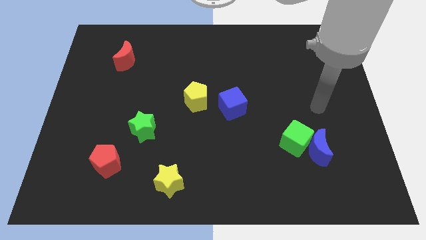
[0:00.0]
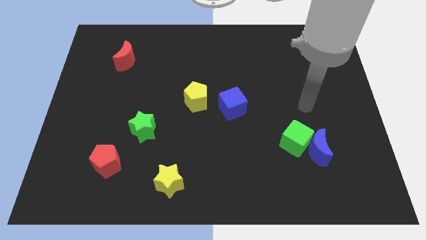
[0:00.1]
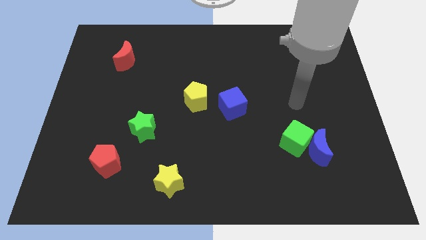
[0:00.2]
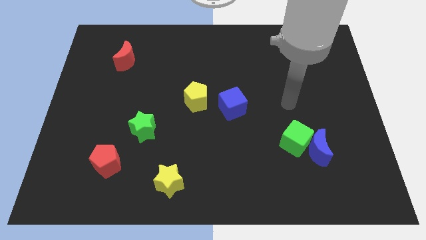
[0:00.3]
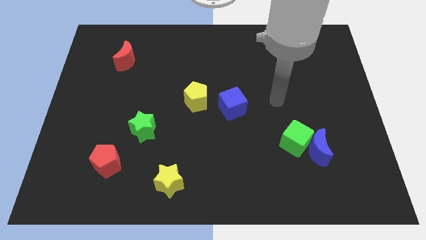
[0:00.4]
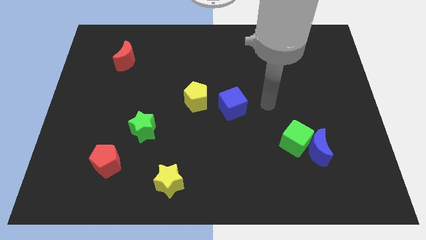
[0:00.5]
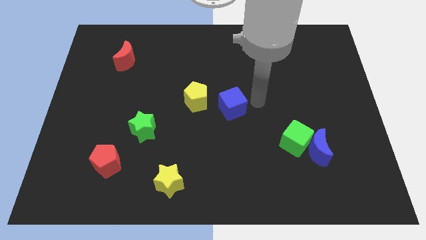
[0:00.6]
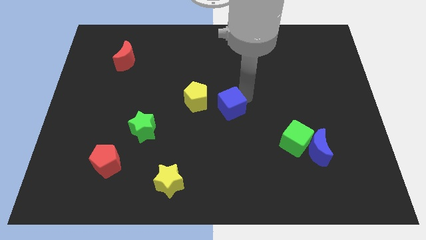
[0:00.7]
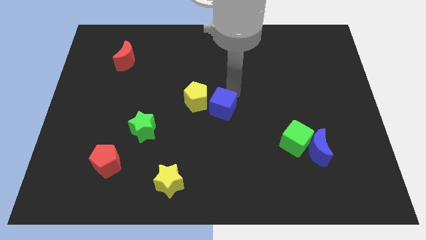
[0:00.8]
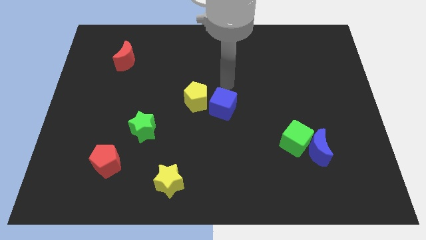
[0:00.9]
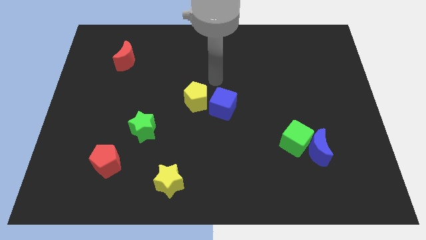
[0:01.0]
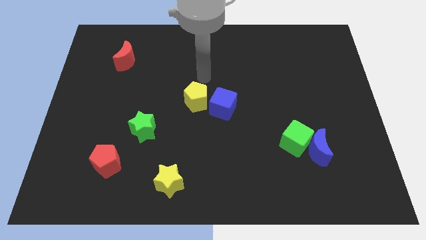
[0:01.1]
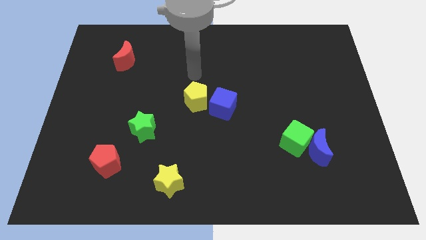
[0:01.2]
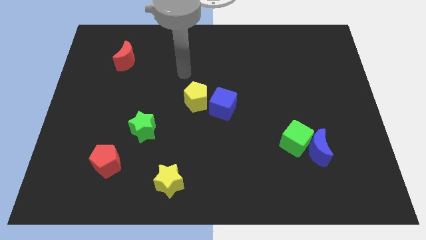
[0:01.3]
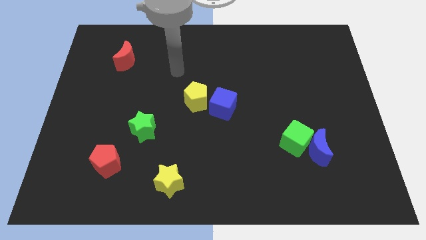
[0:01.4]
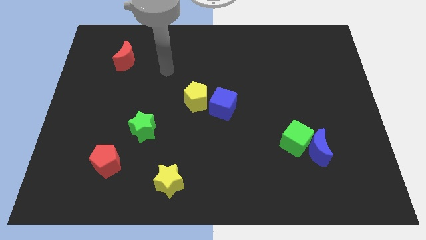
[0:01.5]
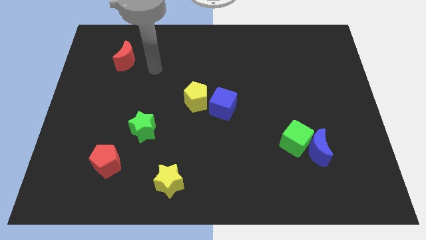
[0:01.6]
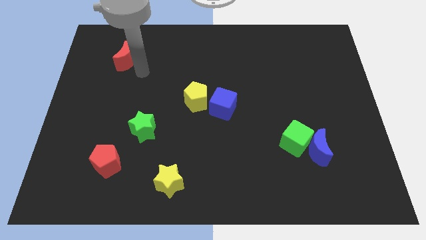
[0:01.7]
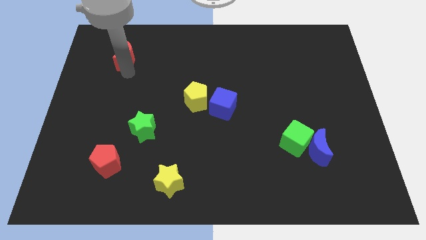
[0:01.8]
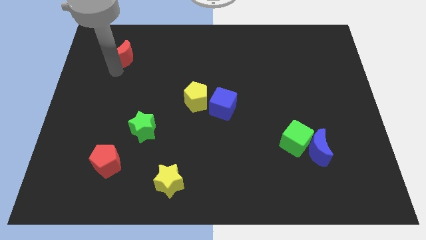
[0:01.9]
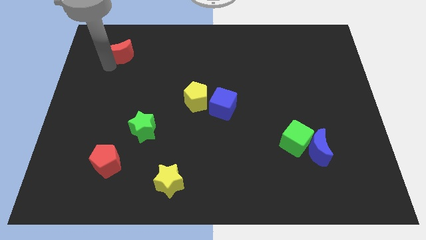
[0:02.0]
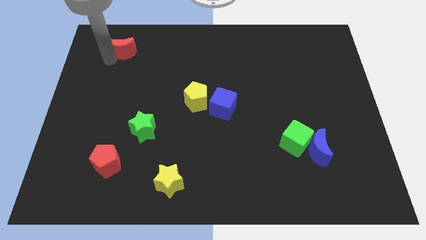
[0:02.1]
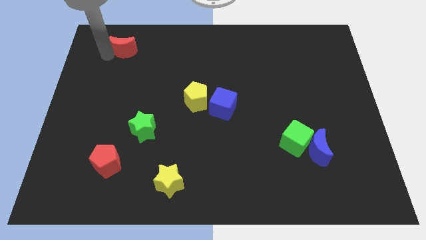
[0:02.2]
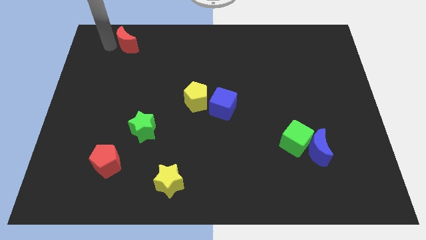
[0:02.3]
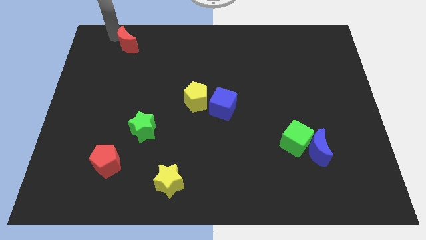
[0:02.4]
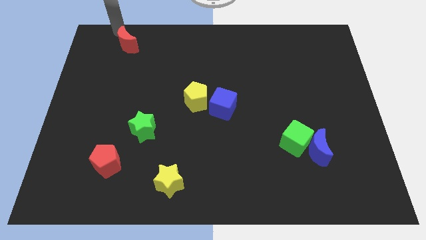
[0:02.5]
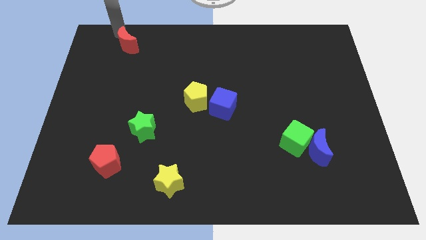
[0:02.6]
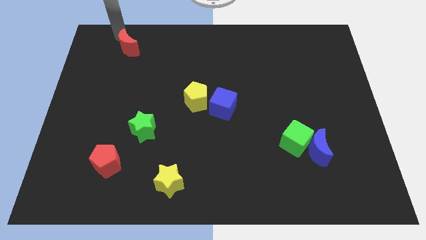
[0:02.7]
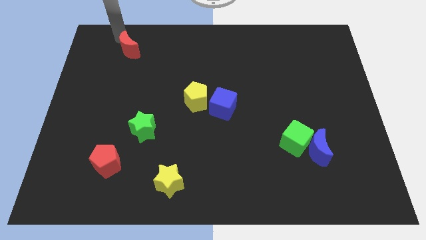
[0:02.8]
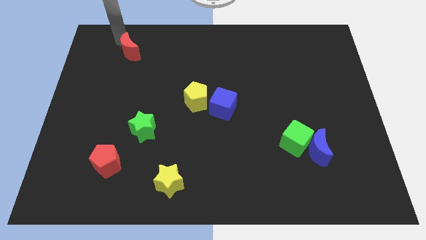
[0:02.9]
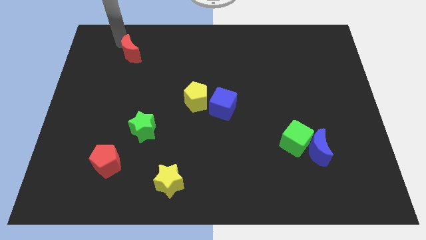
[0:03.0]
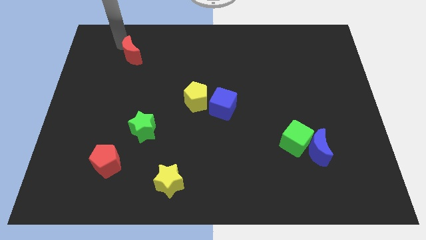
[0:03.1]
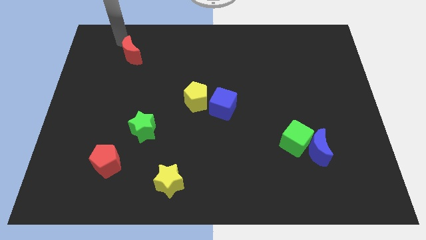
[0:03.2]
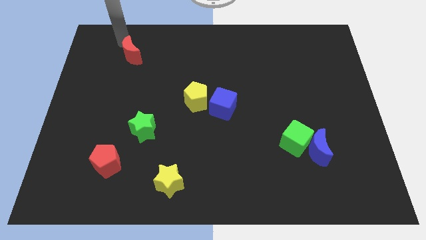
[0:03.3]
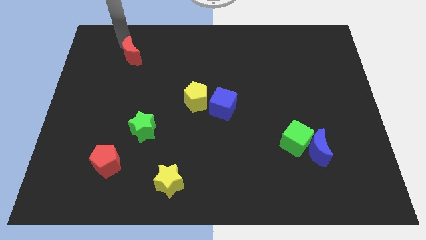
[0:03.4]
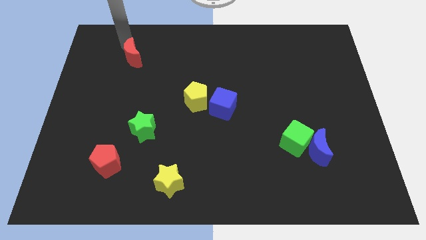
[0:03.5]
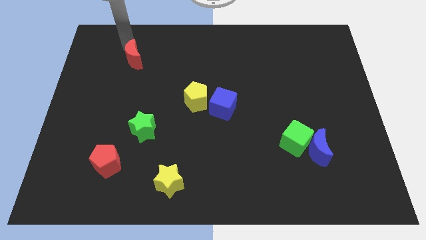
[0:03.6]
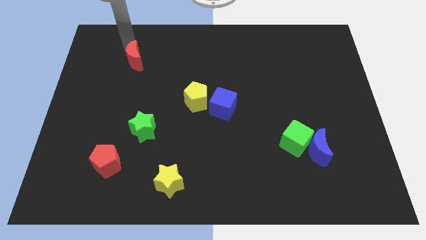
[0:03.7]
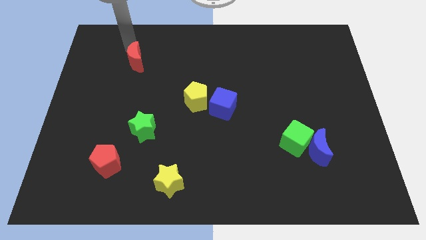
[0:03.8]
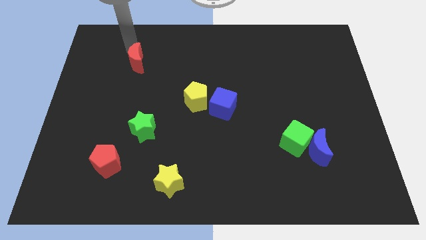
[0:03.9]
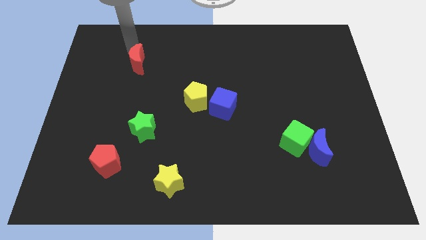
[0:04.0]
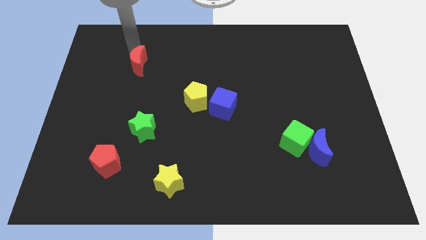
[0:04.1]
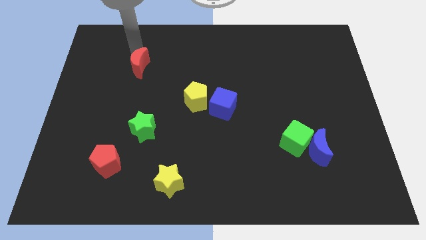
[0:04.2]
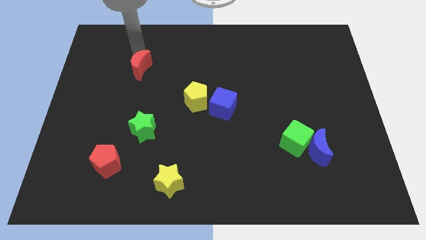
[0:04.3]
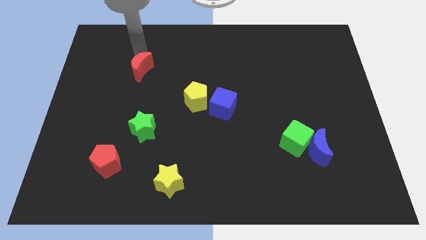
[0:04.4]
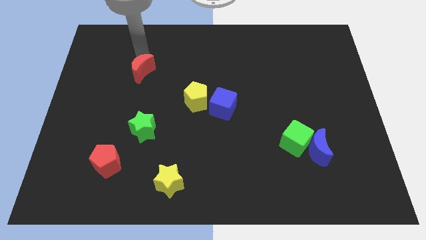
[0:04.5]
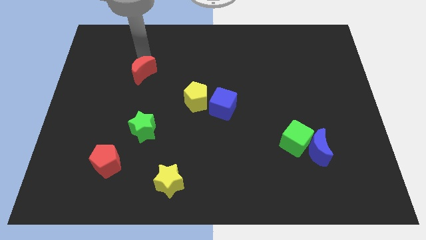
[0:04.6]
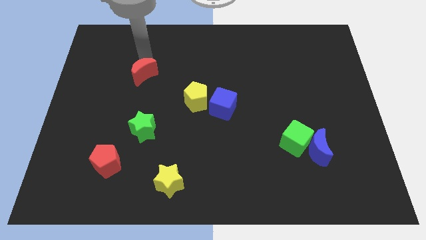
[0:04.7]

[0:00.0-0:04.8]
push the red moon downwards and right a little

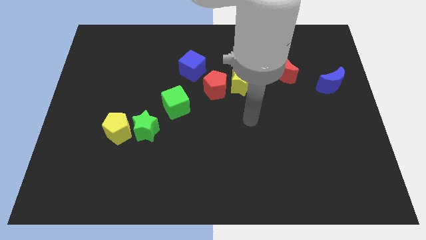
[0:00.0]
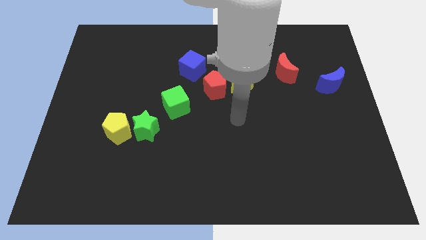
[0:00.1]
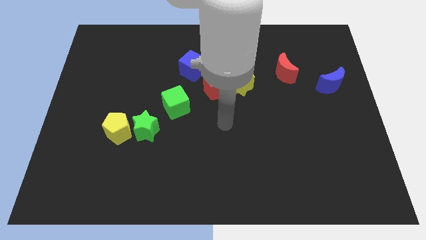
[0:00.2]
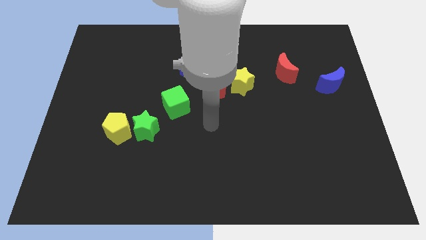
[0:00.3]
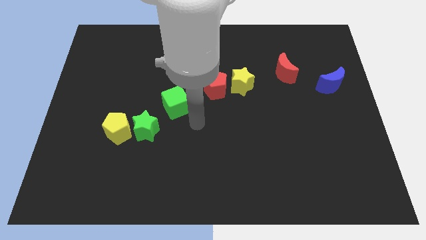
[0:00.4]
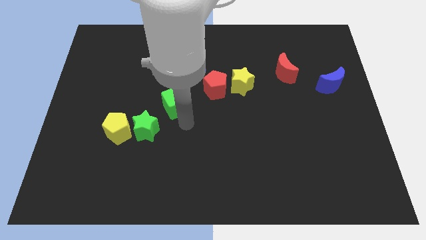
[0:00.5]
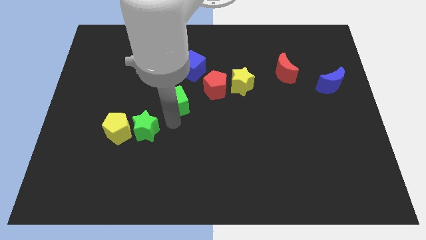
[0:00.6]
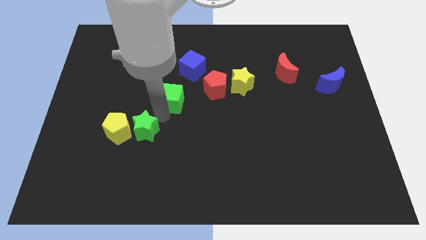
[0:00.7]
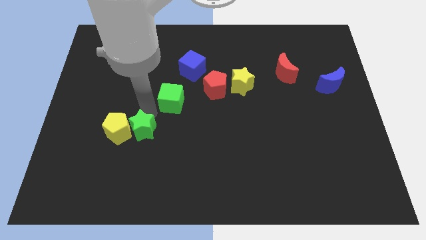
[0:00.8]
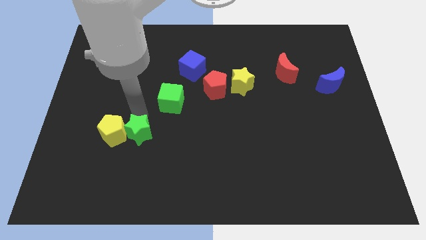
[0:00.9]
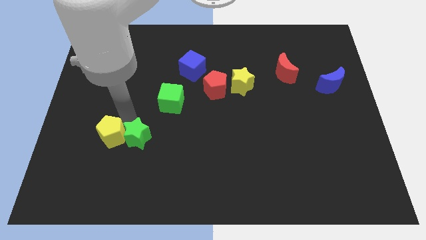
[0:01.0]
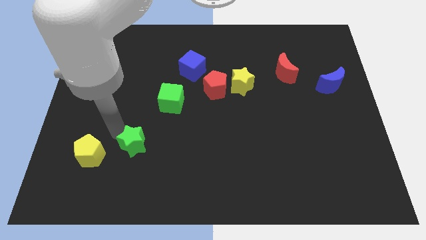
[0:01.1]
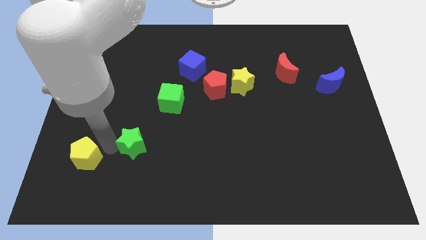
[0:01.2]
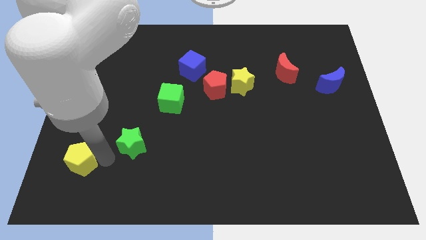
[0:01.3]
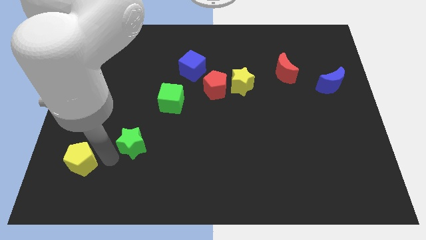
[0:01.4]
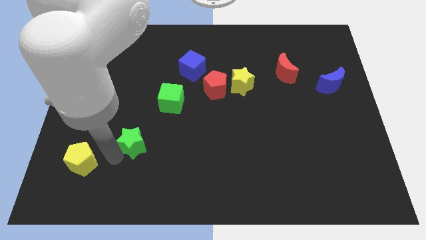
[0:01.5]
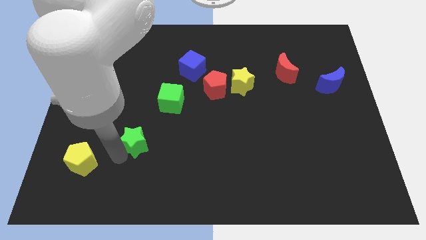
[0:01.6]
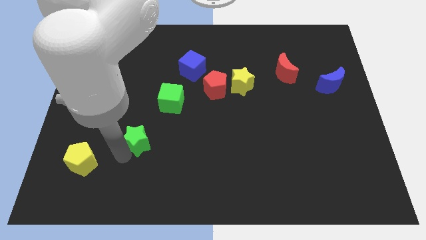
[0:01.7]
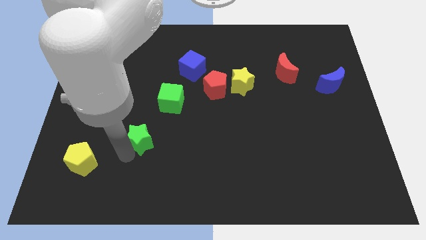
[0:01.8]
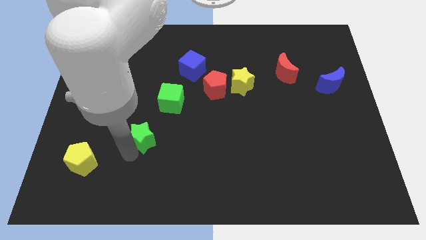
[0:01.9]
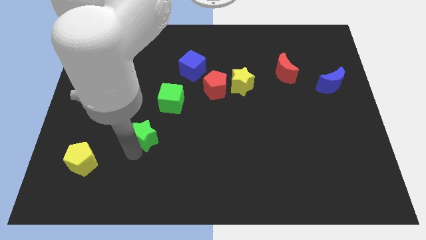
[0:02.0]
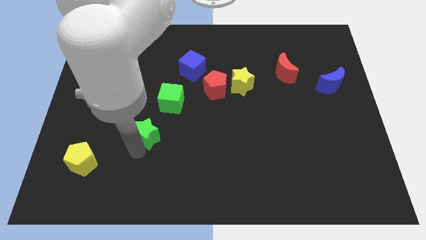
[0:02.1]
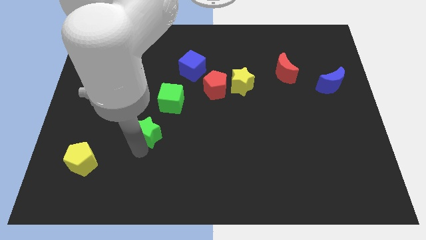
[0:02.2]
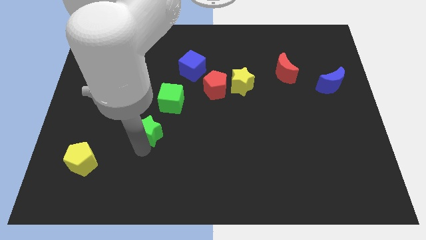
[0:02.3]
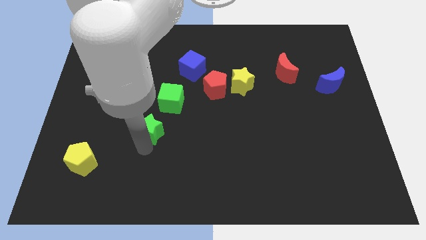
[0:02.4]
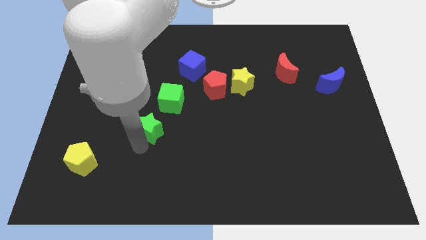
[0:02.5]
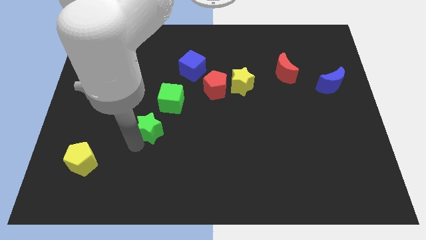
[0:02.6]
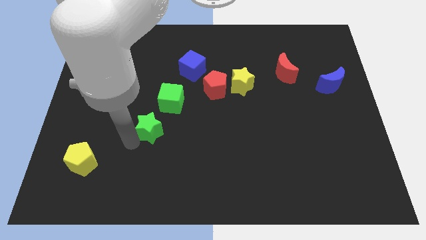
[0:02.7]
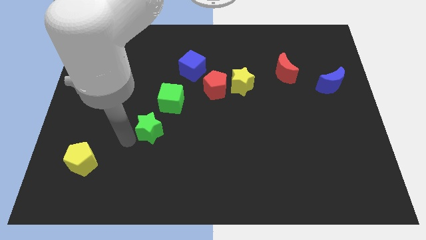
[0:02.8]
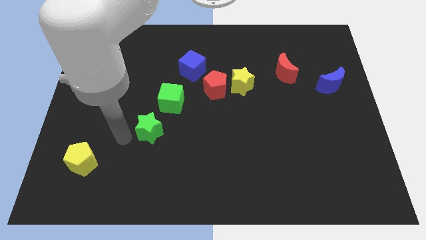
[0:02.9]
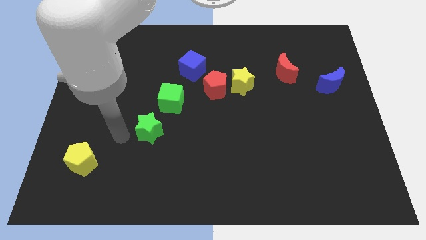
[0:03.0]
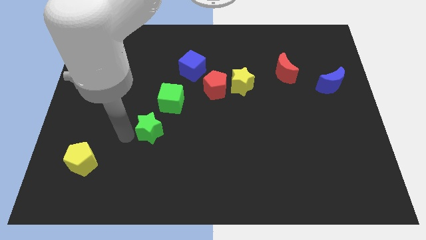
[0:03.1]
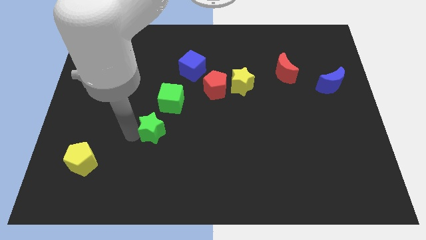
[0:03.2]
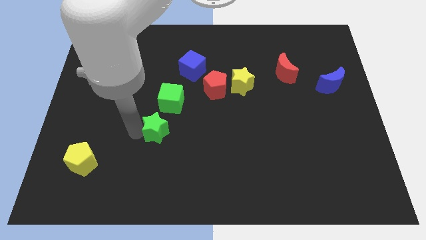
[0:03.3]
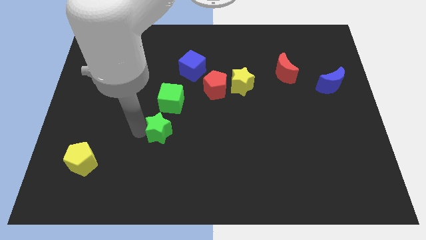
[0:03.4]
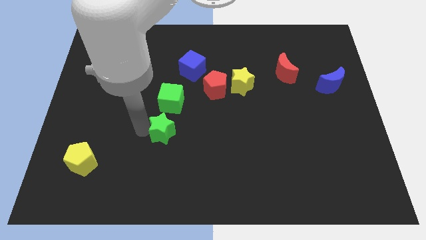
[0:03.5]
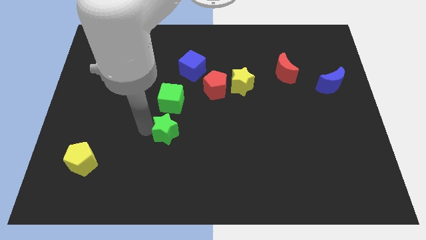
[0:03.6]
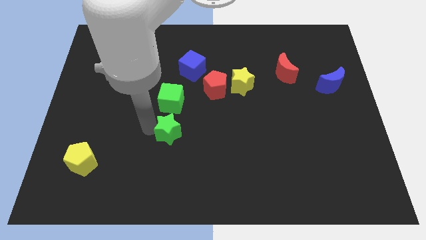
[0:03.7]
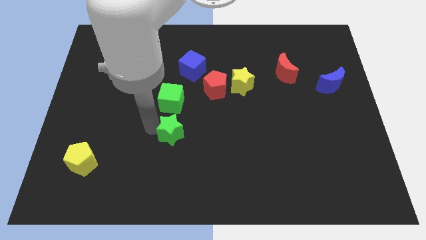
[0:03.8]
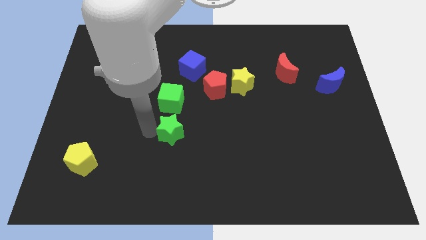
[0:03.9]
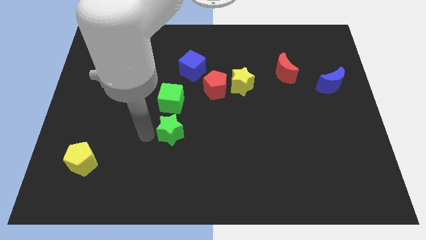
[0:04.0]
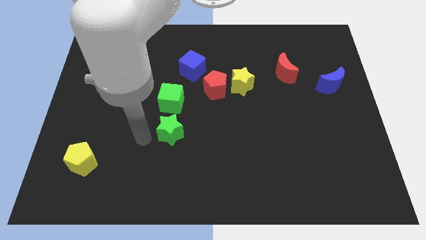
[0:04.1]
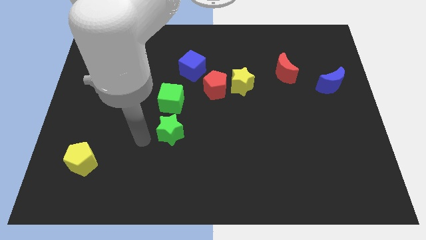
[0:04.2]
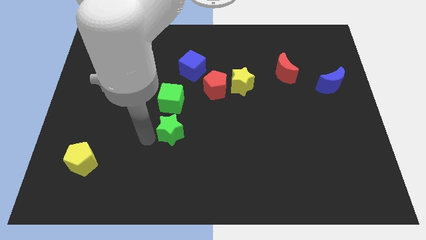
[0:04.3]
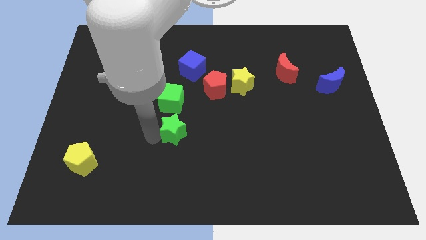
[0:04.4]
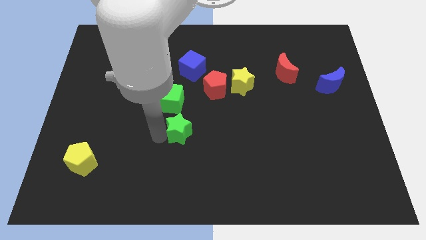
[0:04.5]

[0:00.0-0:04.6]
move the green star right a little
